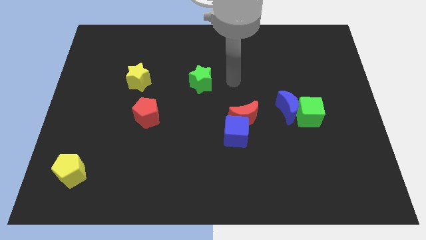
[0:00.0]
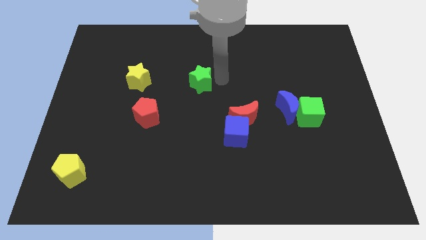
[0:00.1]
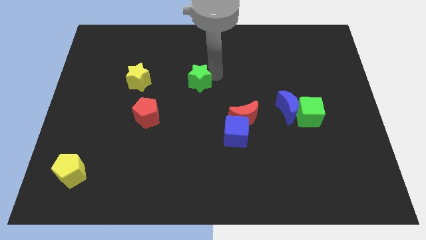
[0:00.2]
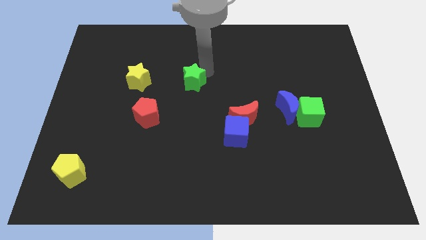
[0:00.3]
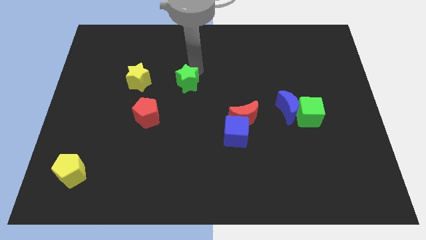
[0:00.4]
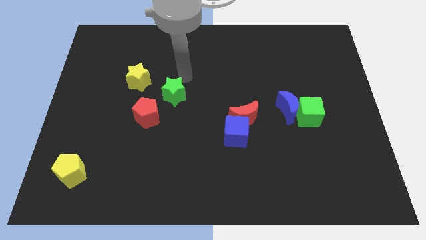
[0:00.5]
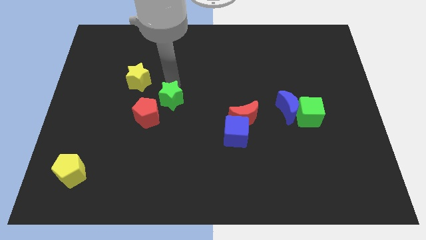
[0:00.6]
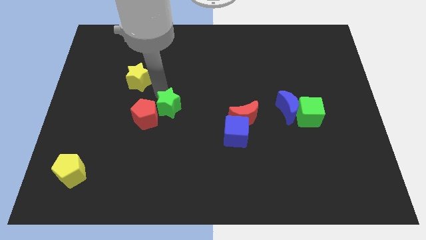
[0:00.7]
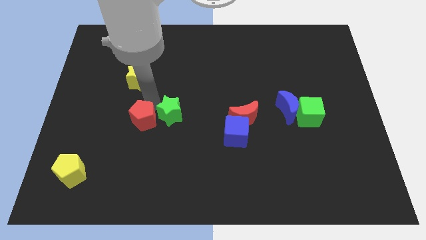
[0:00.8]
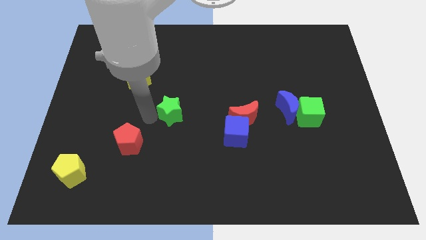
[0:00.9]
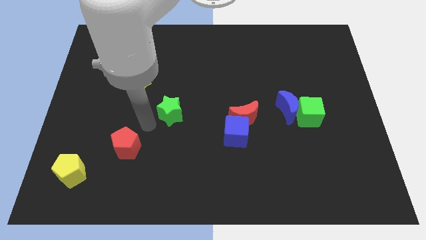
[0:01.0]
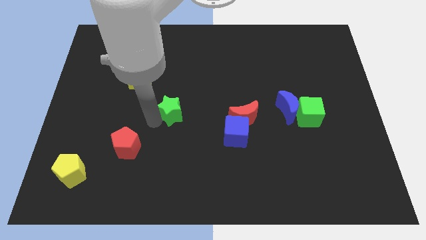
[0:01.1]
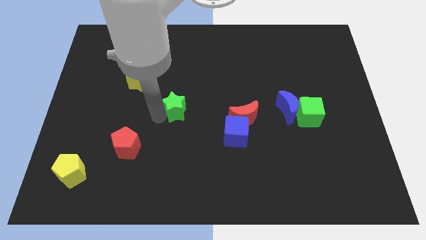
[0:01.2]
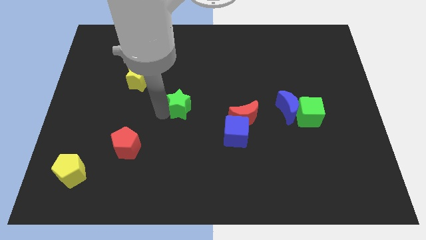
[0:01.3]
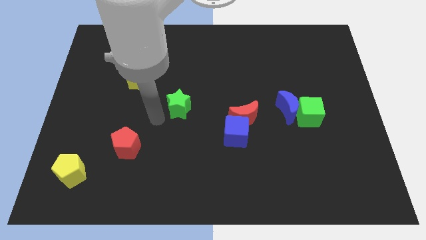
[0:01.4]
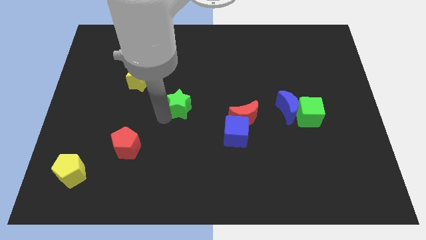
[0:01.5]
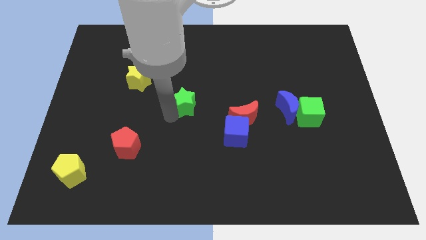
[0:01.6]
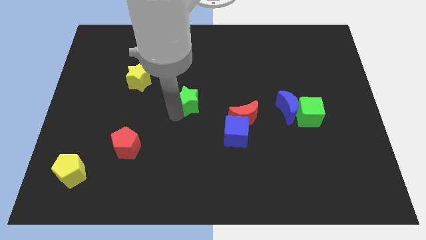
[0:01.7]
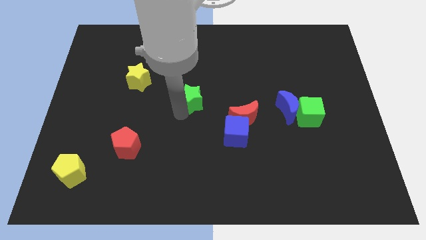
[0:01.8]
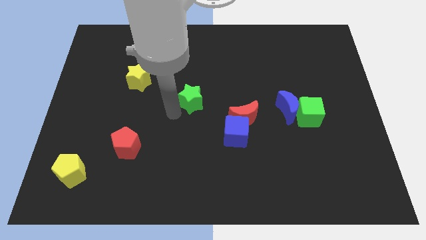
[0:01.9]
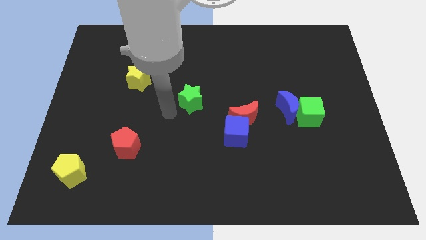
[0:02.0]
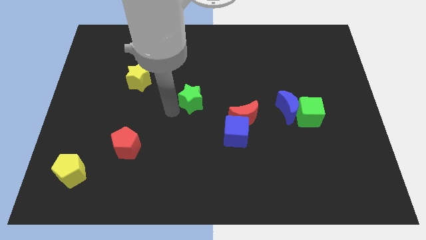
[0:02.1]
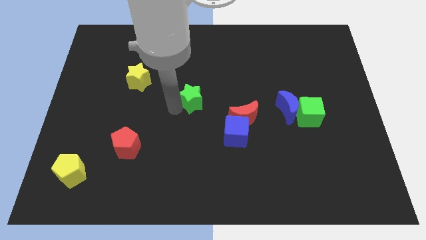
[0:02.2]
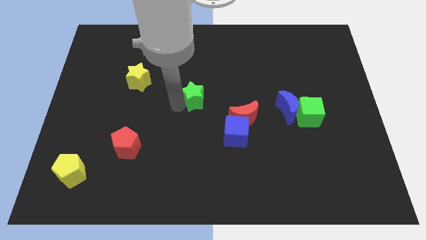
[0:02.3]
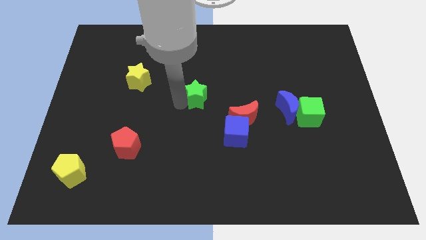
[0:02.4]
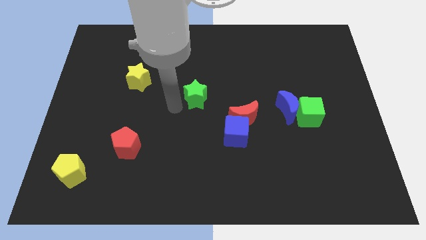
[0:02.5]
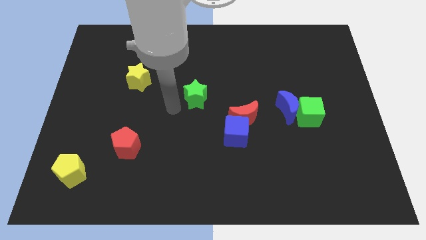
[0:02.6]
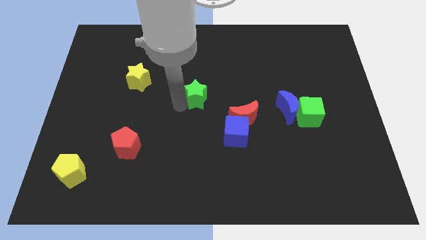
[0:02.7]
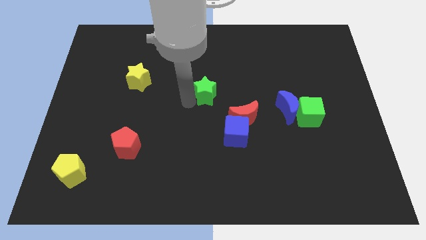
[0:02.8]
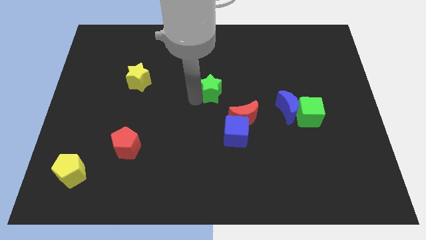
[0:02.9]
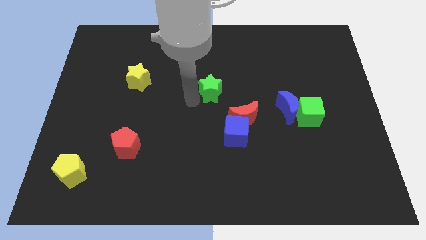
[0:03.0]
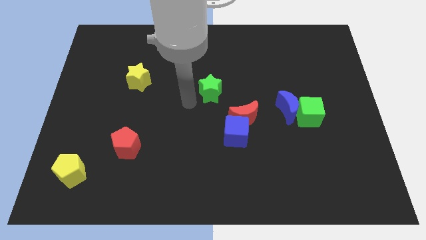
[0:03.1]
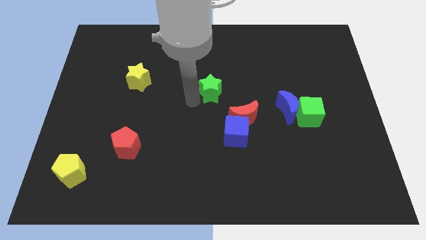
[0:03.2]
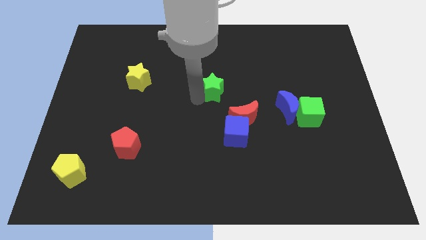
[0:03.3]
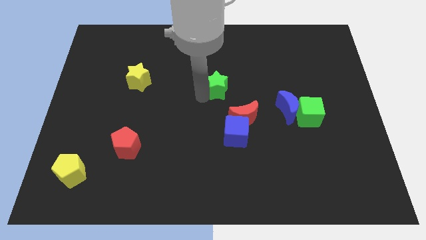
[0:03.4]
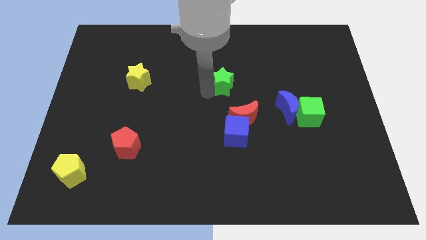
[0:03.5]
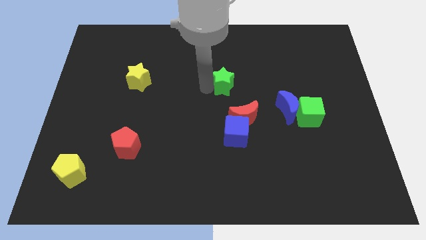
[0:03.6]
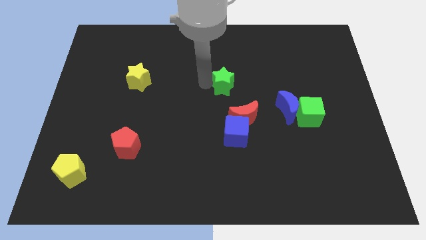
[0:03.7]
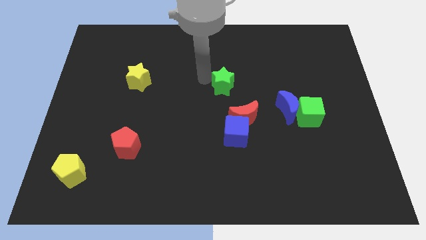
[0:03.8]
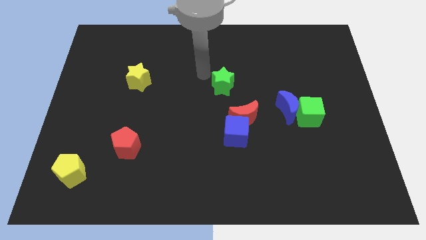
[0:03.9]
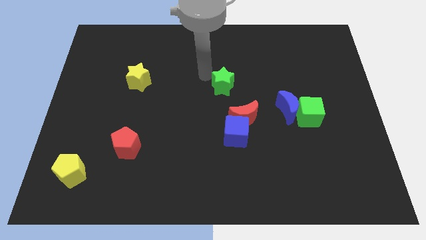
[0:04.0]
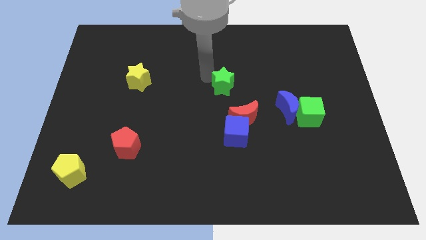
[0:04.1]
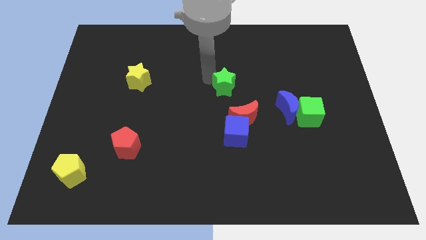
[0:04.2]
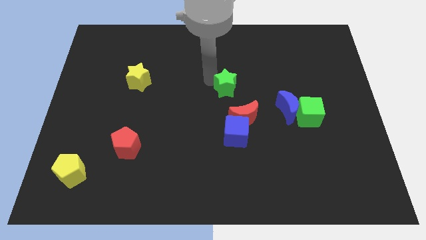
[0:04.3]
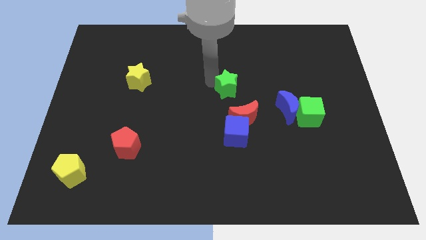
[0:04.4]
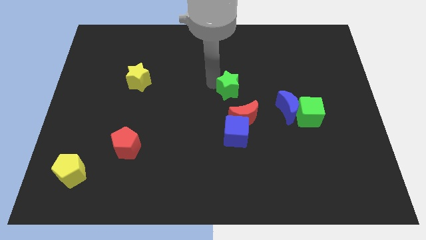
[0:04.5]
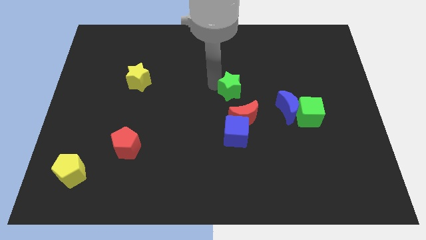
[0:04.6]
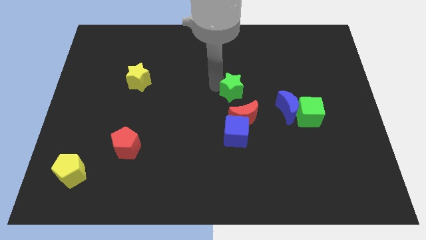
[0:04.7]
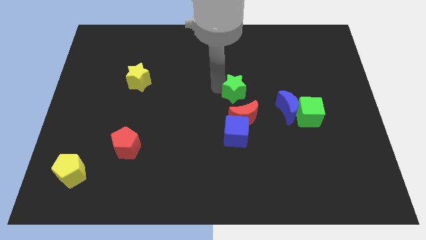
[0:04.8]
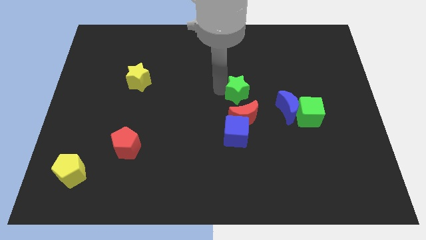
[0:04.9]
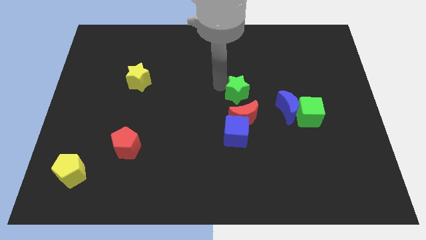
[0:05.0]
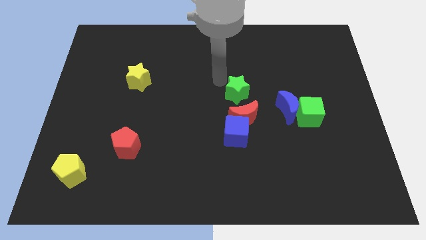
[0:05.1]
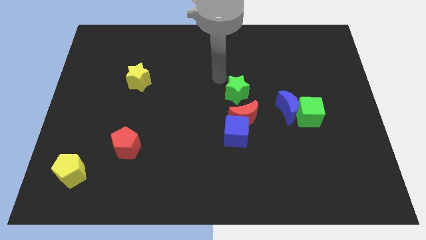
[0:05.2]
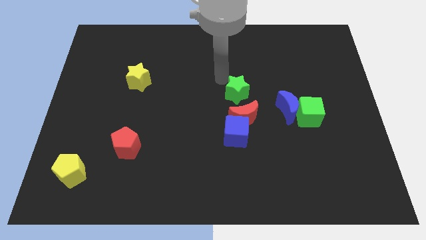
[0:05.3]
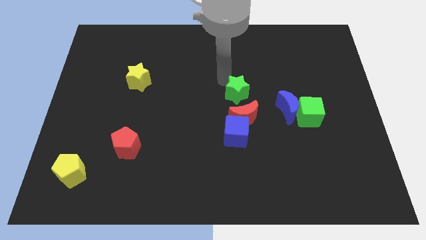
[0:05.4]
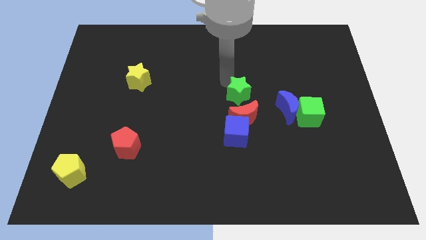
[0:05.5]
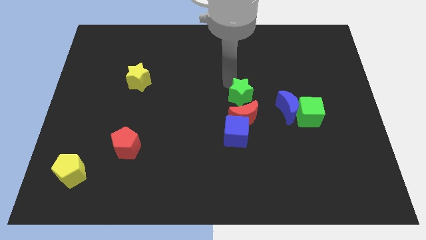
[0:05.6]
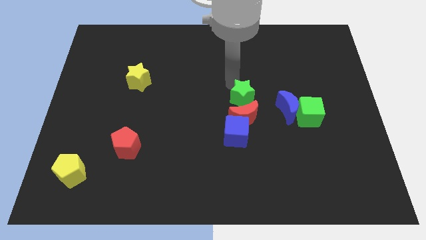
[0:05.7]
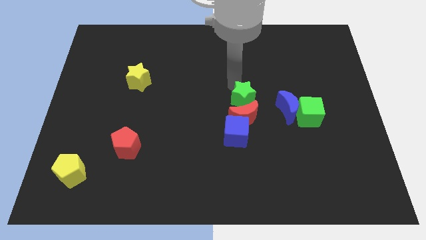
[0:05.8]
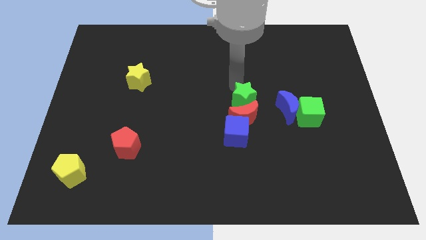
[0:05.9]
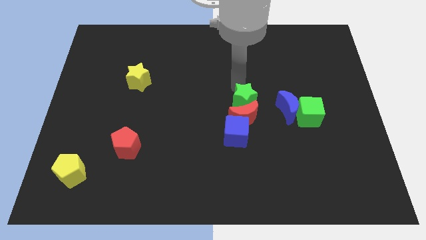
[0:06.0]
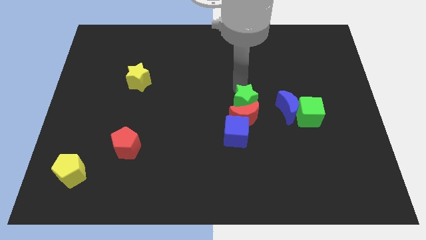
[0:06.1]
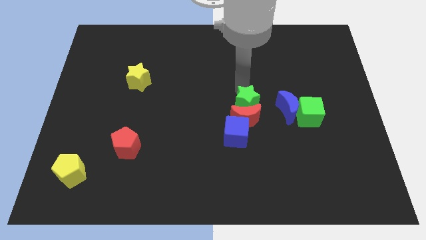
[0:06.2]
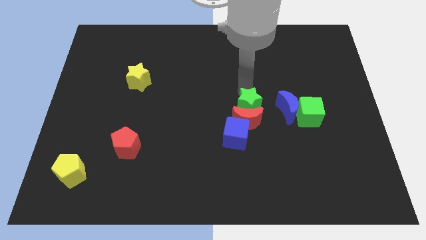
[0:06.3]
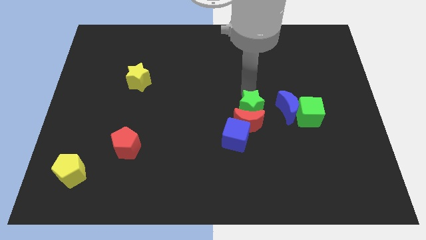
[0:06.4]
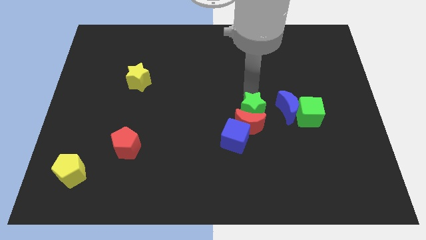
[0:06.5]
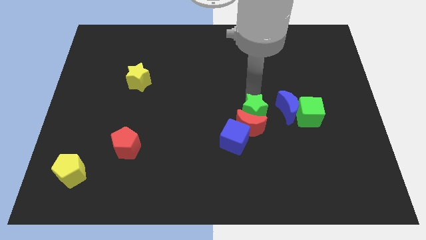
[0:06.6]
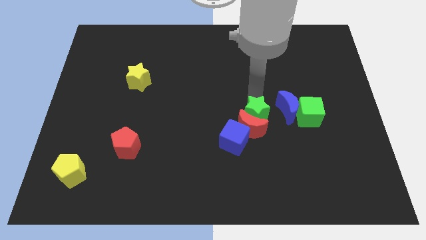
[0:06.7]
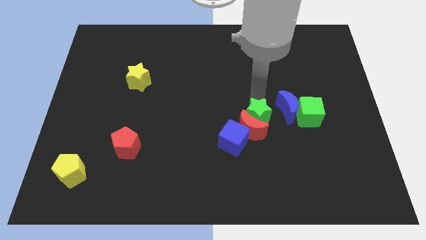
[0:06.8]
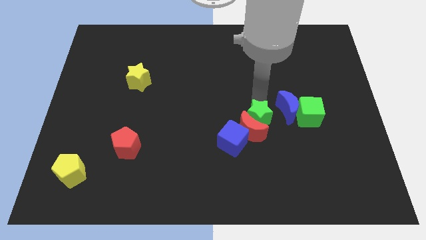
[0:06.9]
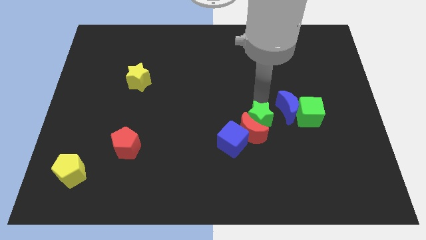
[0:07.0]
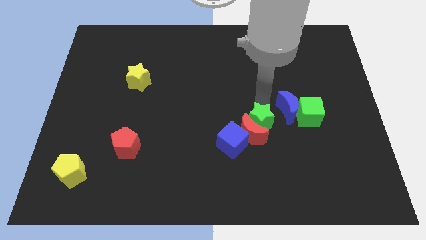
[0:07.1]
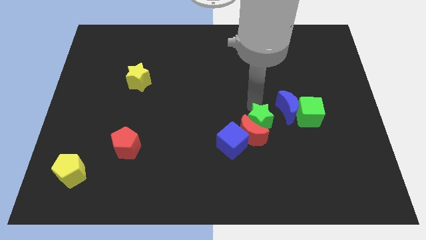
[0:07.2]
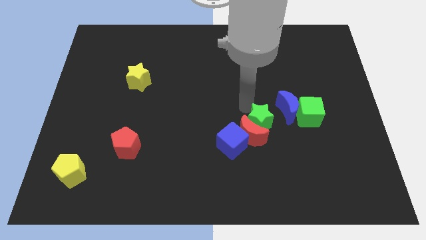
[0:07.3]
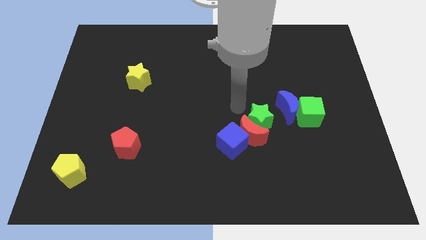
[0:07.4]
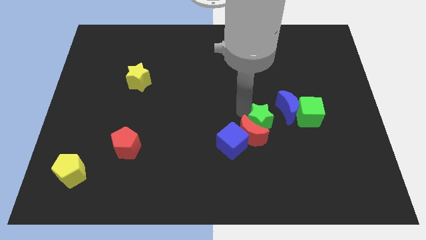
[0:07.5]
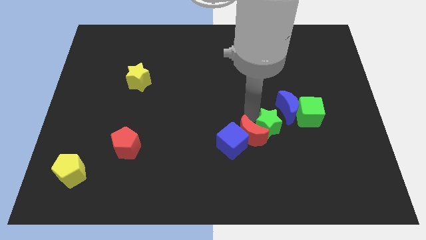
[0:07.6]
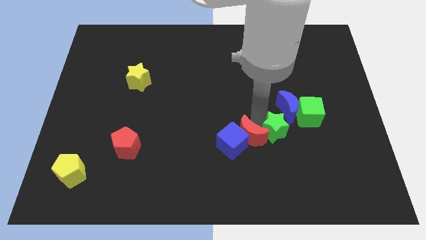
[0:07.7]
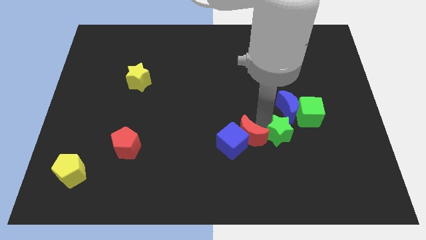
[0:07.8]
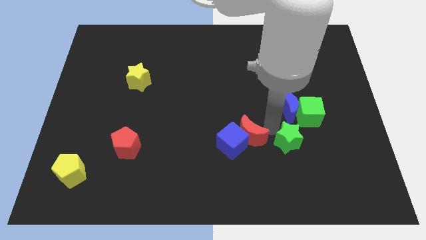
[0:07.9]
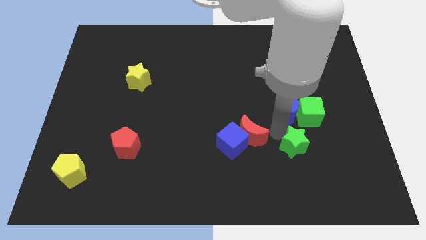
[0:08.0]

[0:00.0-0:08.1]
move the green star below the green cube
